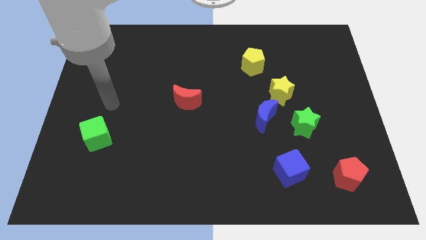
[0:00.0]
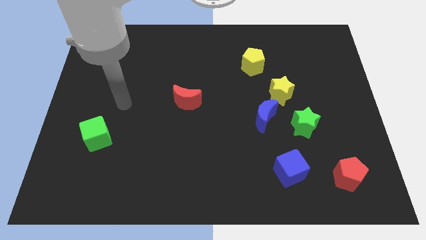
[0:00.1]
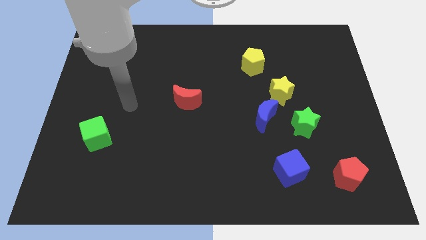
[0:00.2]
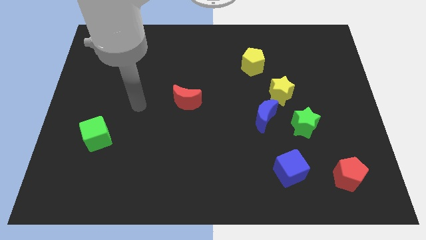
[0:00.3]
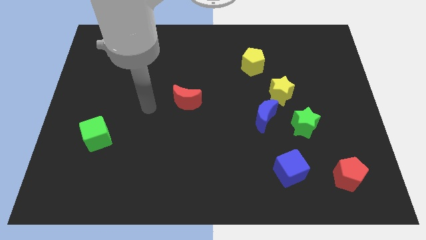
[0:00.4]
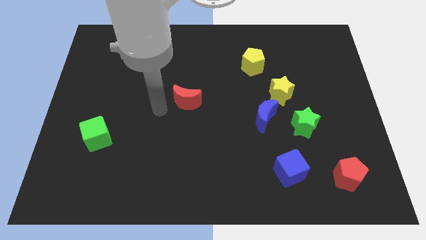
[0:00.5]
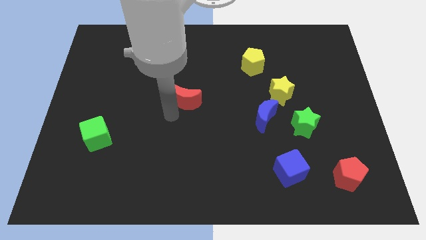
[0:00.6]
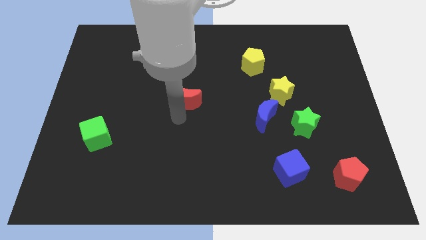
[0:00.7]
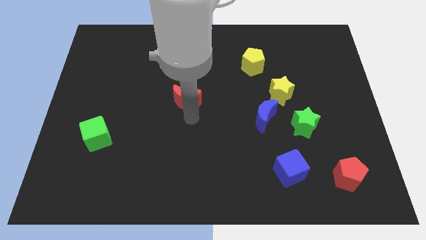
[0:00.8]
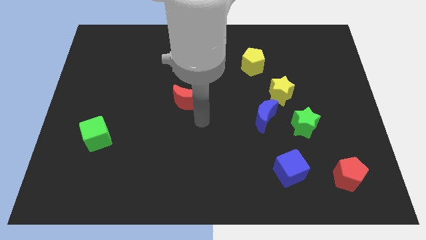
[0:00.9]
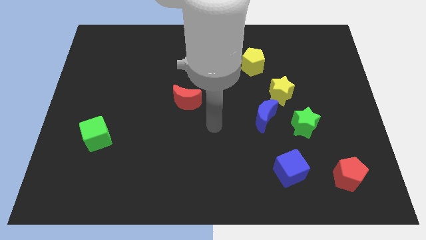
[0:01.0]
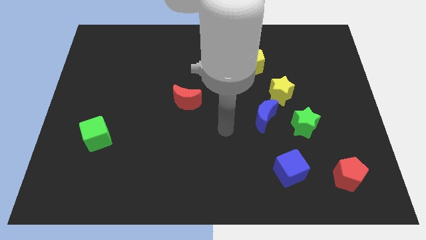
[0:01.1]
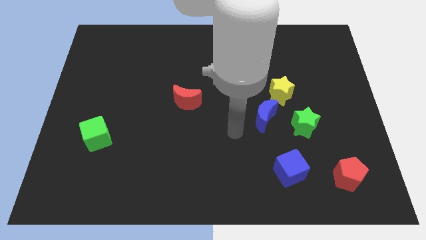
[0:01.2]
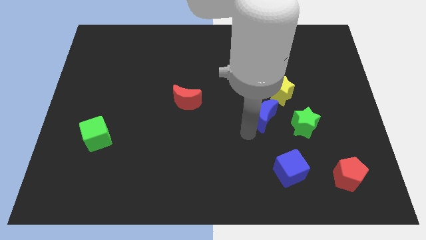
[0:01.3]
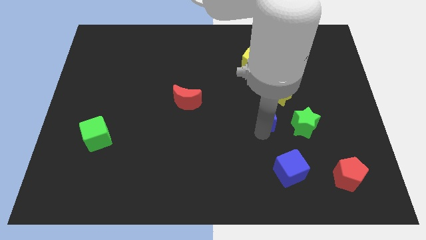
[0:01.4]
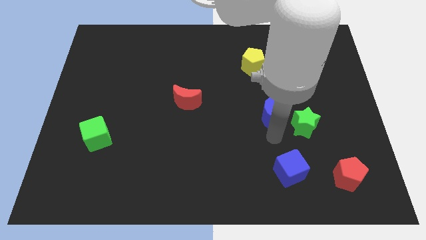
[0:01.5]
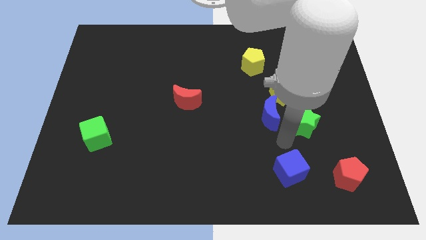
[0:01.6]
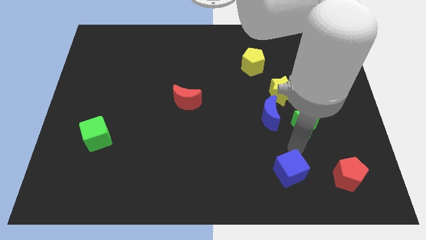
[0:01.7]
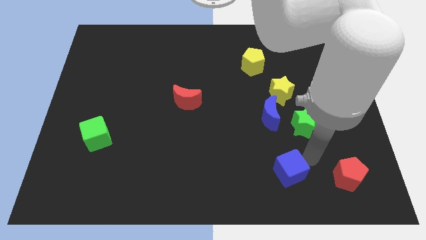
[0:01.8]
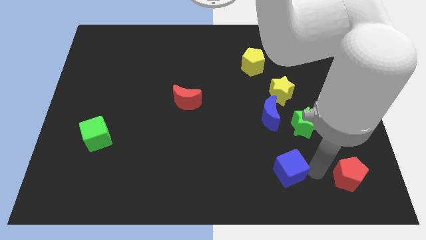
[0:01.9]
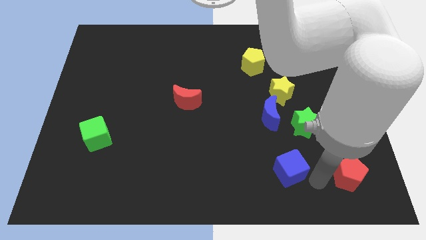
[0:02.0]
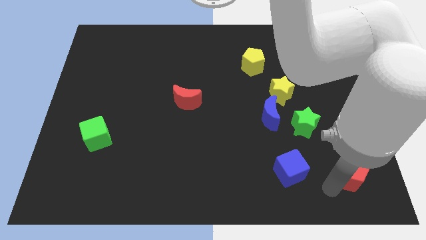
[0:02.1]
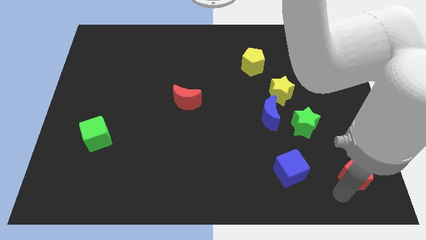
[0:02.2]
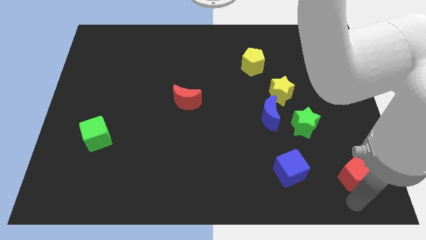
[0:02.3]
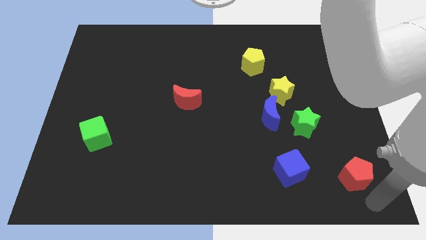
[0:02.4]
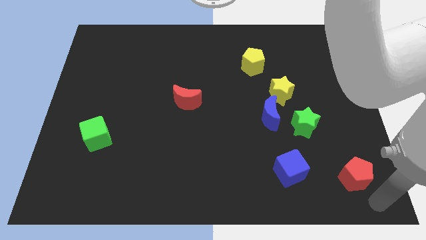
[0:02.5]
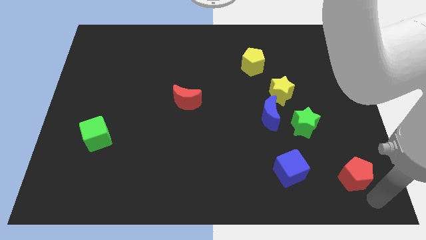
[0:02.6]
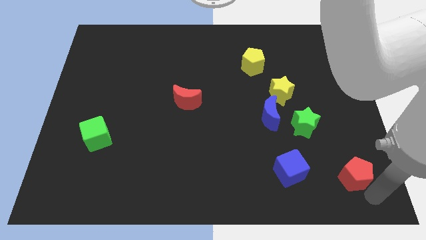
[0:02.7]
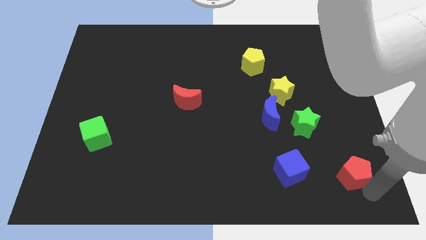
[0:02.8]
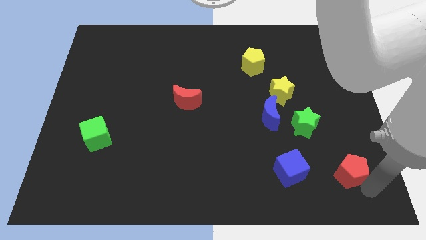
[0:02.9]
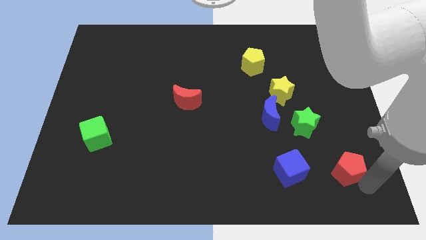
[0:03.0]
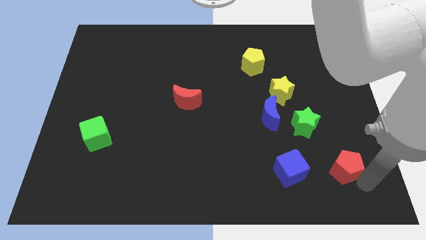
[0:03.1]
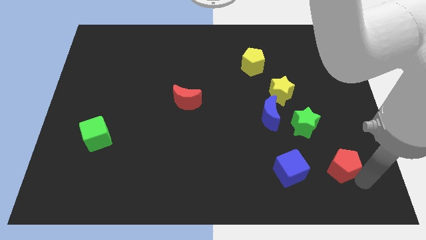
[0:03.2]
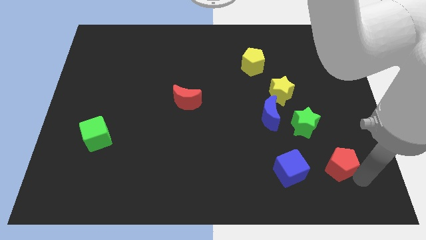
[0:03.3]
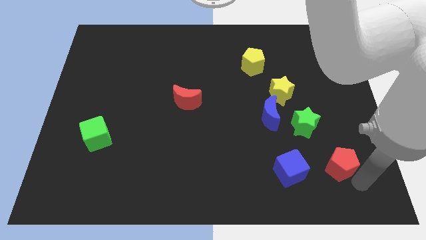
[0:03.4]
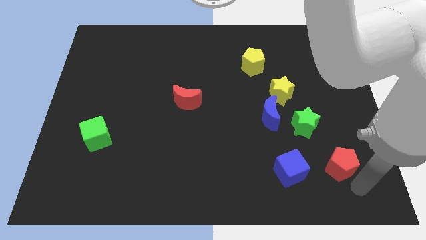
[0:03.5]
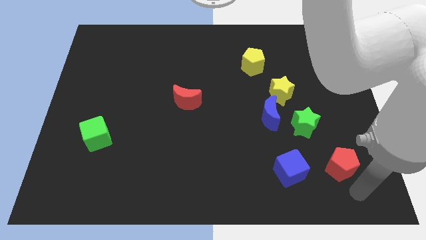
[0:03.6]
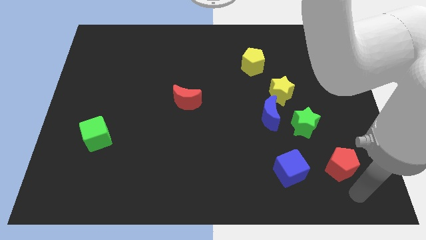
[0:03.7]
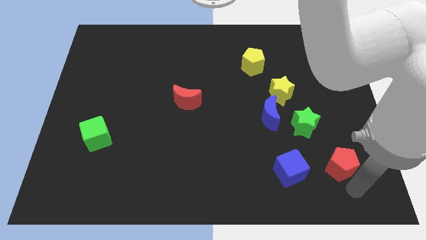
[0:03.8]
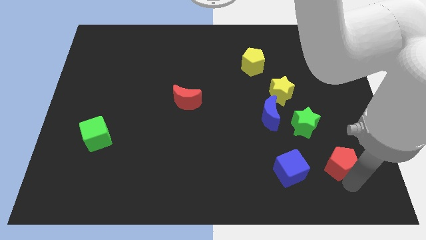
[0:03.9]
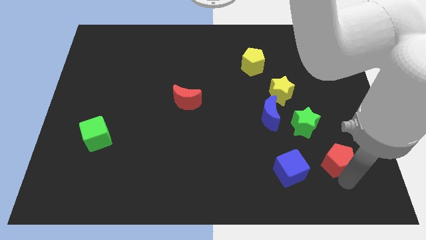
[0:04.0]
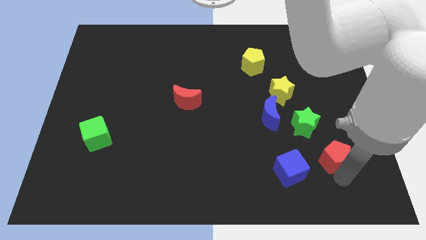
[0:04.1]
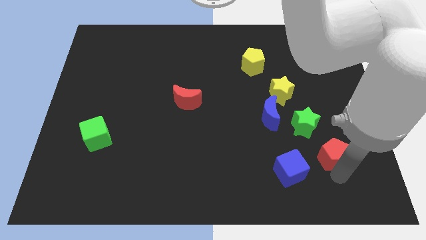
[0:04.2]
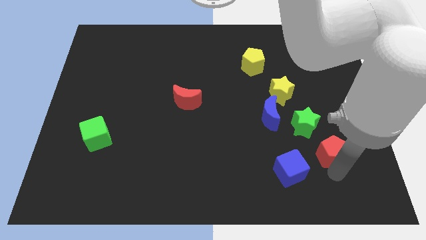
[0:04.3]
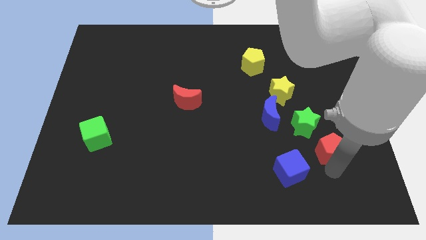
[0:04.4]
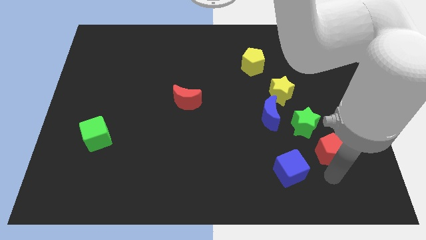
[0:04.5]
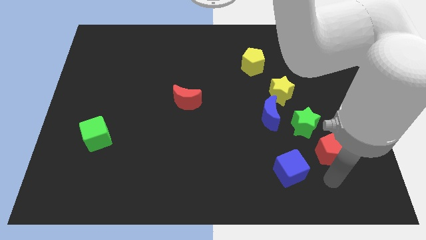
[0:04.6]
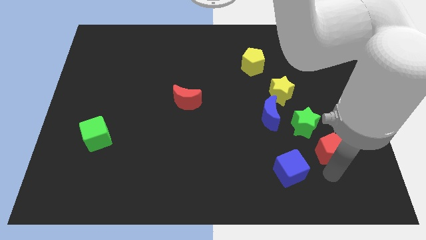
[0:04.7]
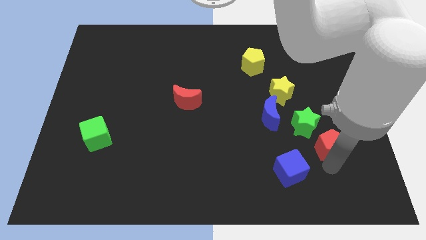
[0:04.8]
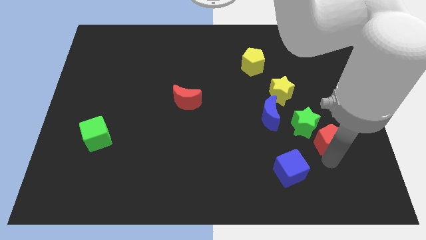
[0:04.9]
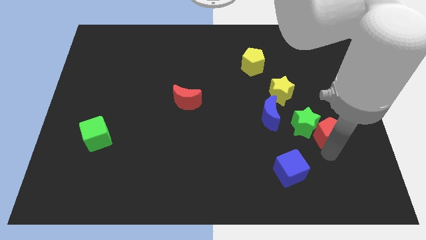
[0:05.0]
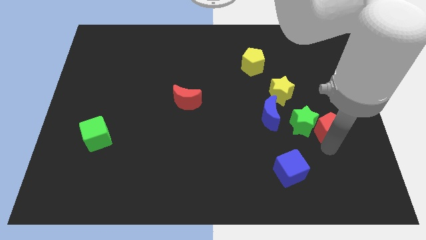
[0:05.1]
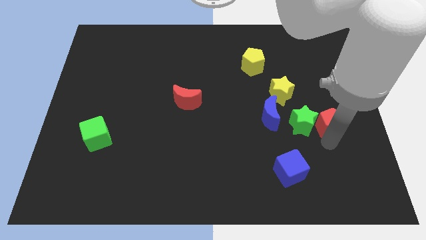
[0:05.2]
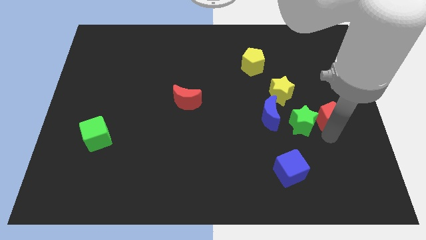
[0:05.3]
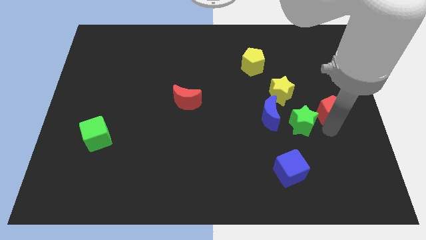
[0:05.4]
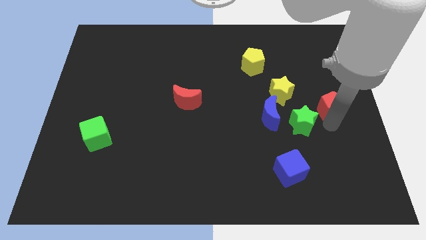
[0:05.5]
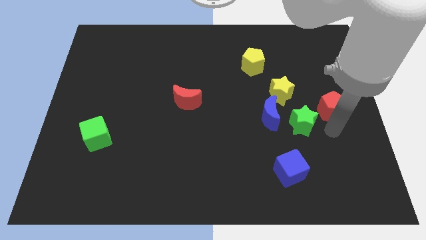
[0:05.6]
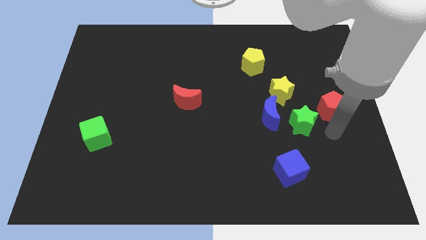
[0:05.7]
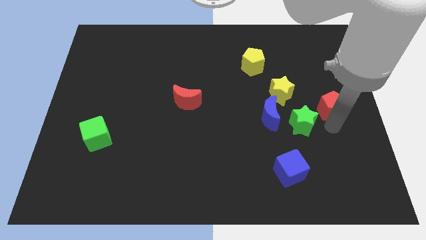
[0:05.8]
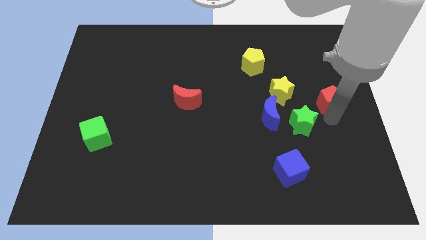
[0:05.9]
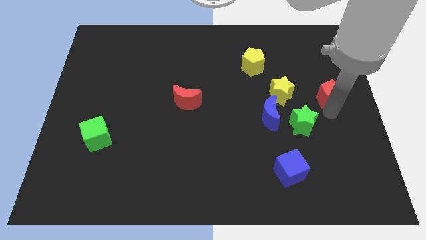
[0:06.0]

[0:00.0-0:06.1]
push the red pentagon up

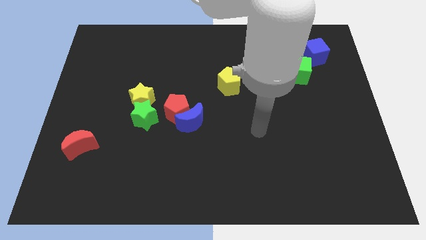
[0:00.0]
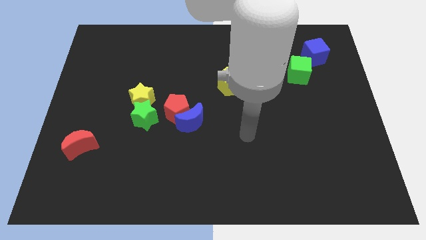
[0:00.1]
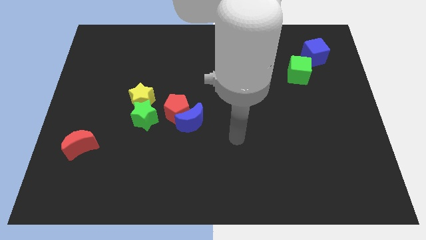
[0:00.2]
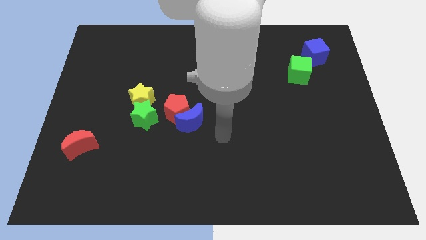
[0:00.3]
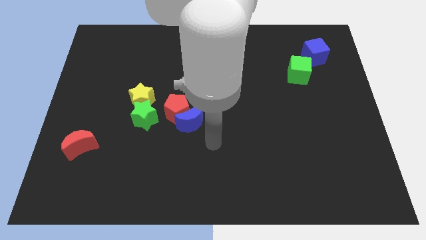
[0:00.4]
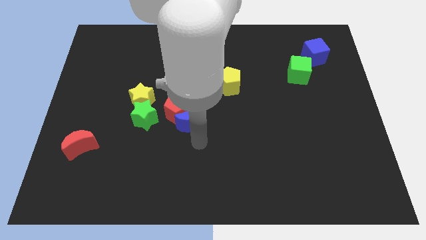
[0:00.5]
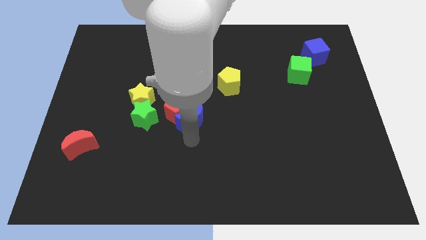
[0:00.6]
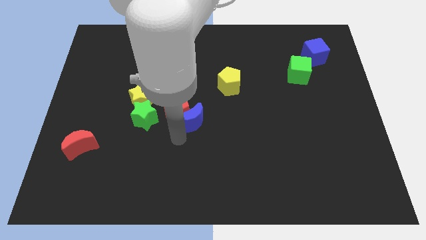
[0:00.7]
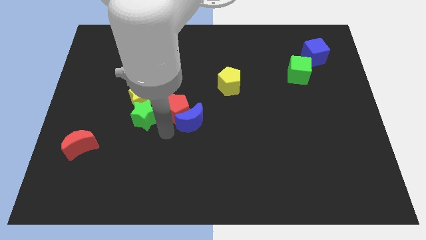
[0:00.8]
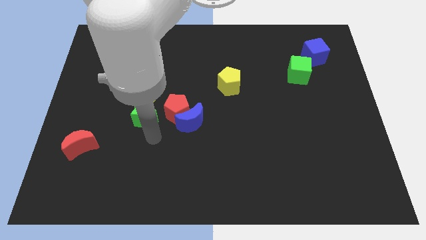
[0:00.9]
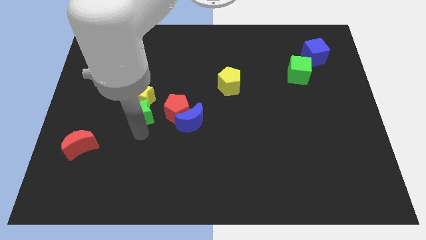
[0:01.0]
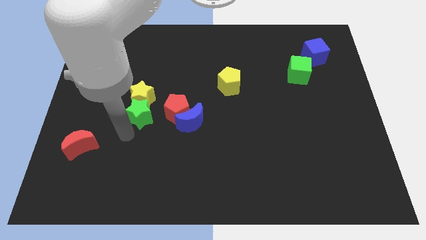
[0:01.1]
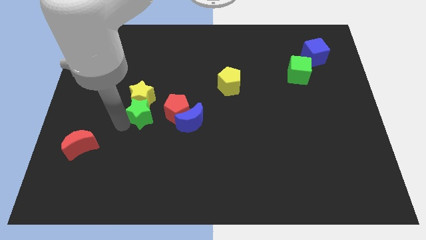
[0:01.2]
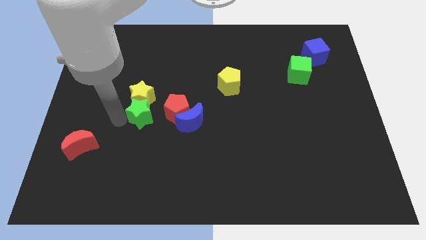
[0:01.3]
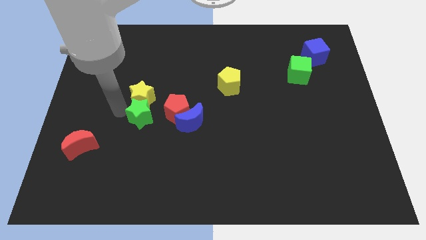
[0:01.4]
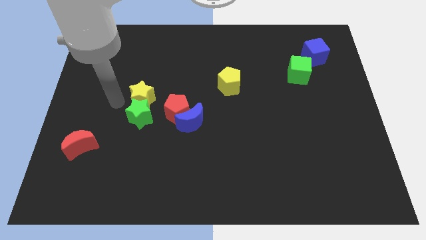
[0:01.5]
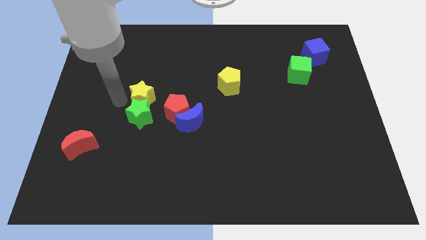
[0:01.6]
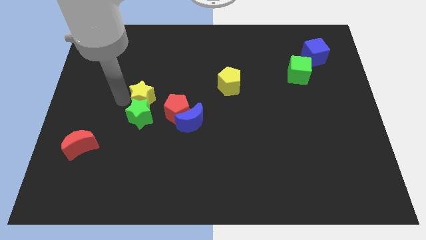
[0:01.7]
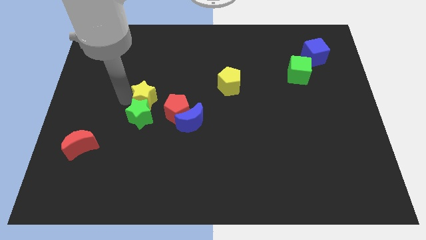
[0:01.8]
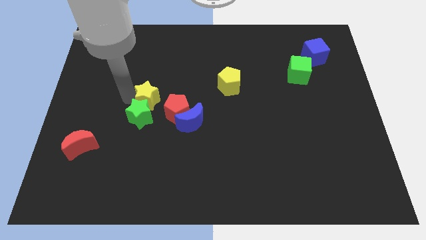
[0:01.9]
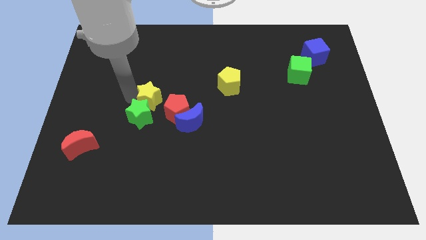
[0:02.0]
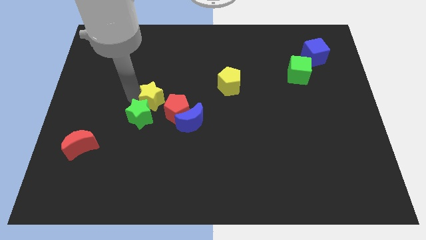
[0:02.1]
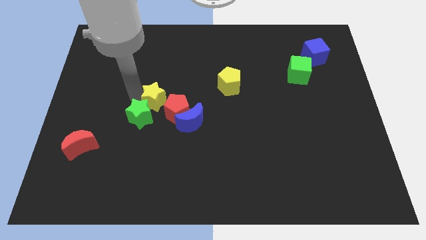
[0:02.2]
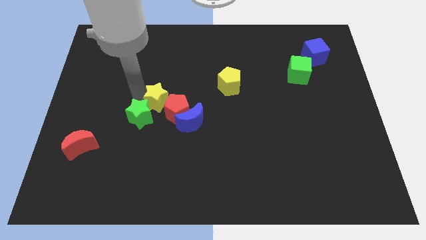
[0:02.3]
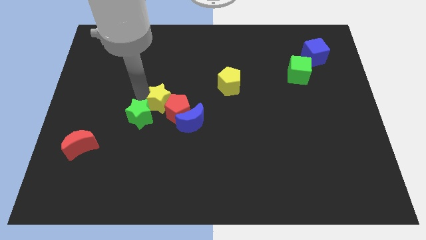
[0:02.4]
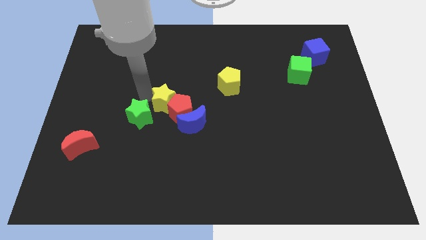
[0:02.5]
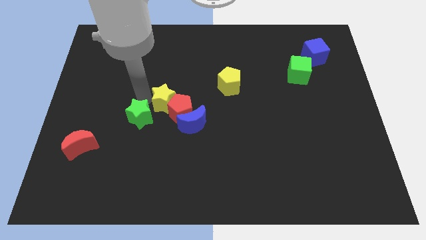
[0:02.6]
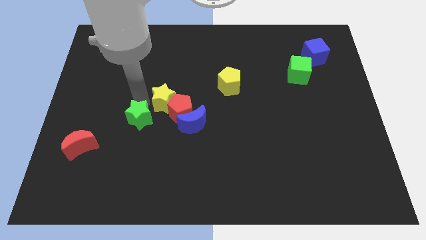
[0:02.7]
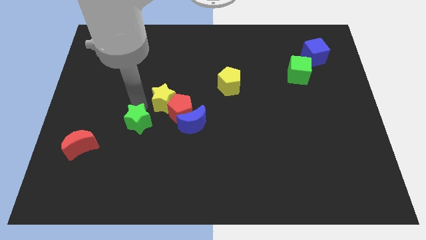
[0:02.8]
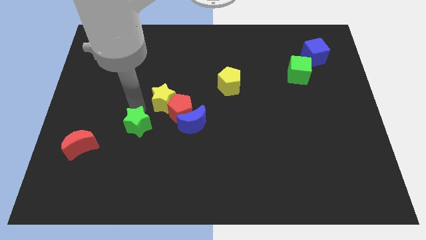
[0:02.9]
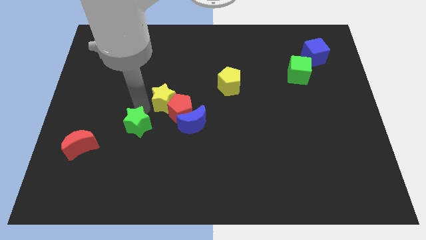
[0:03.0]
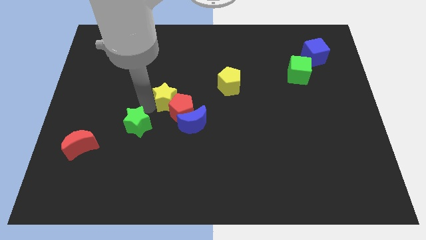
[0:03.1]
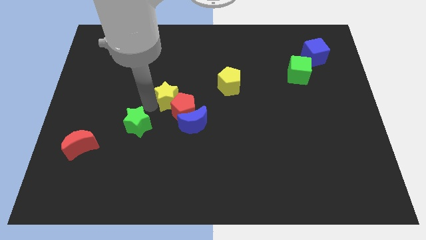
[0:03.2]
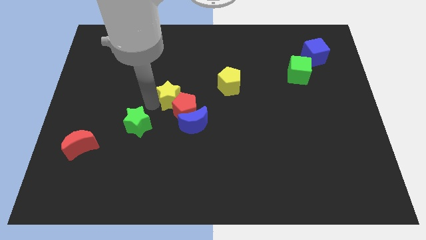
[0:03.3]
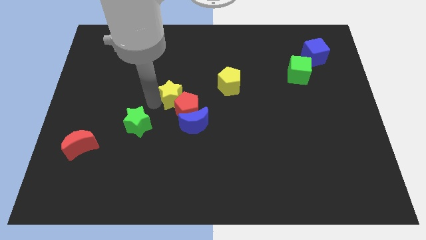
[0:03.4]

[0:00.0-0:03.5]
slightly slide the yellow star to the right
